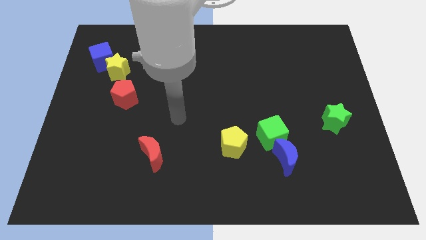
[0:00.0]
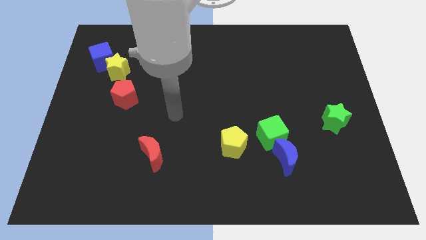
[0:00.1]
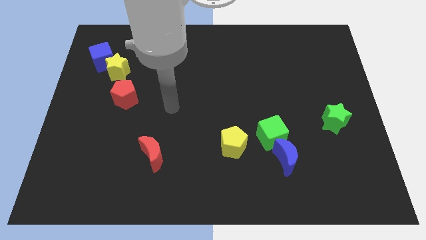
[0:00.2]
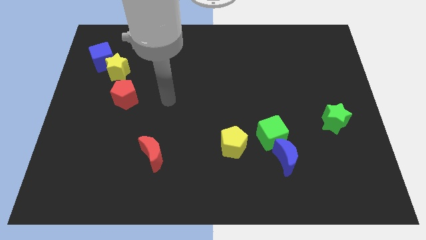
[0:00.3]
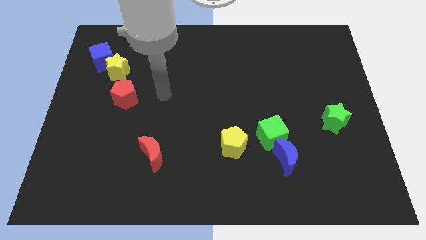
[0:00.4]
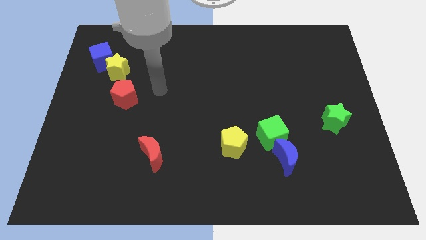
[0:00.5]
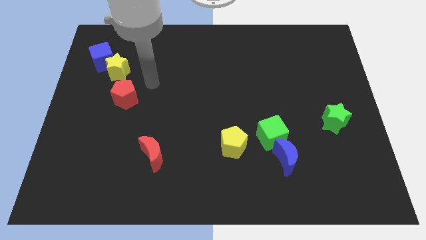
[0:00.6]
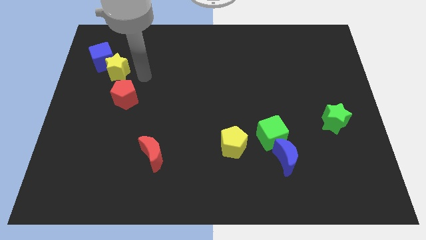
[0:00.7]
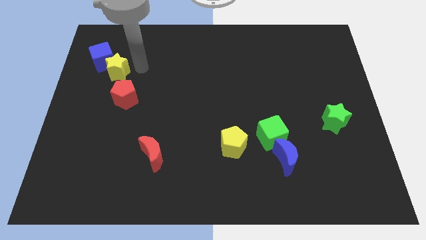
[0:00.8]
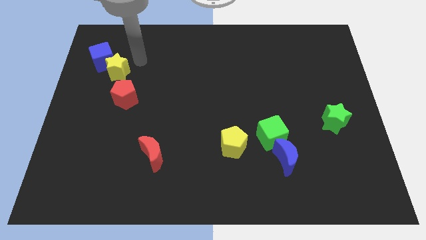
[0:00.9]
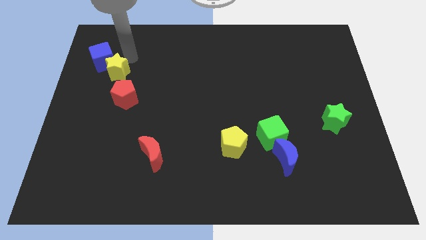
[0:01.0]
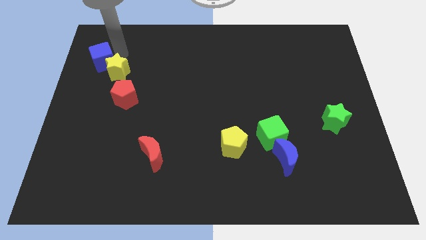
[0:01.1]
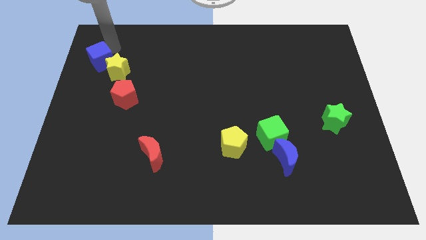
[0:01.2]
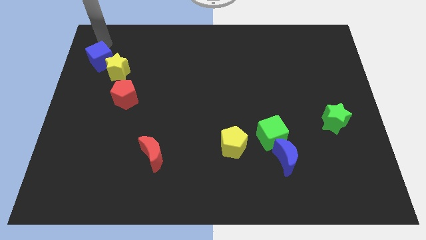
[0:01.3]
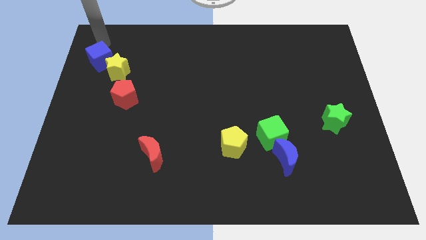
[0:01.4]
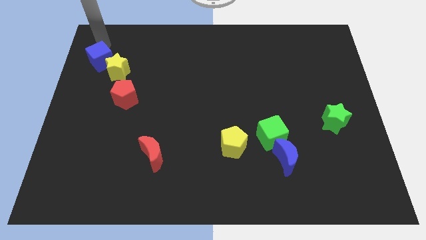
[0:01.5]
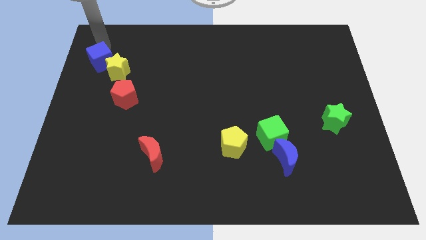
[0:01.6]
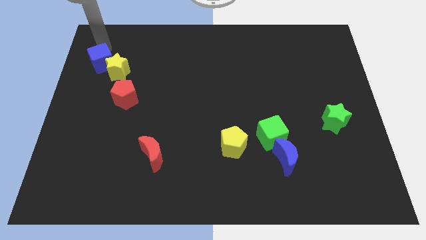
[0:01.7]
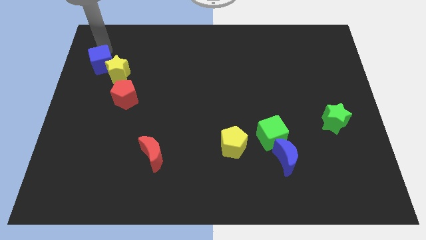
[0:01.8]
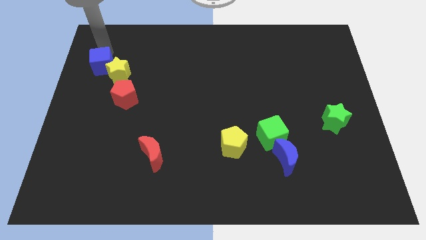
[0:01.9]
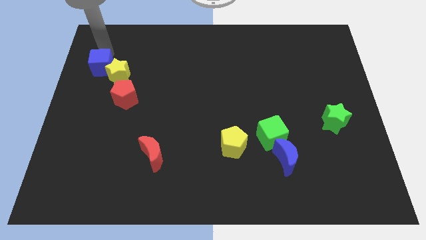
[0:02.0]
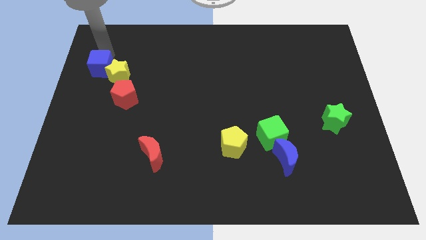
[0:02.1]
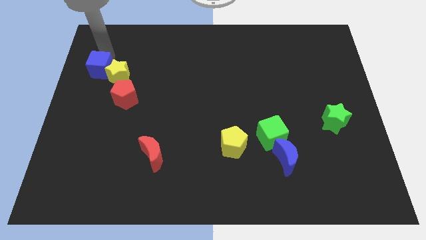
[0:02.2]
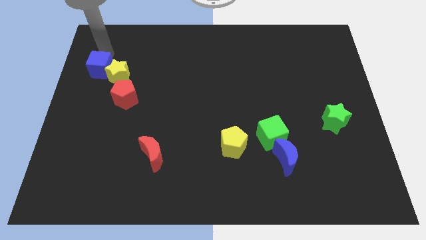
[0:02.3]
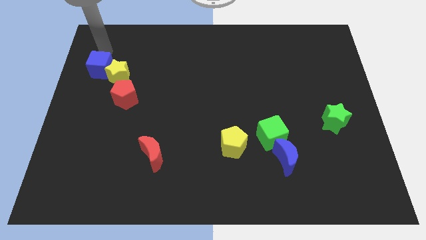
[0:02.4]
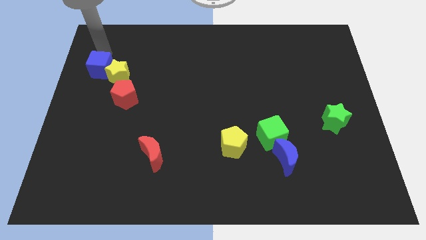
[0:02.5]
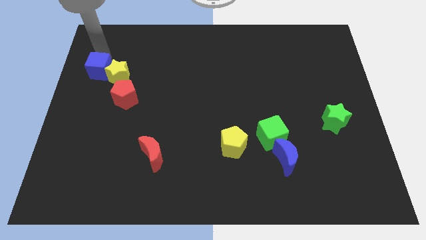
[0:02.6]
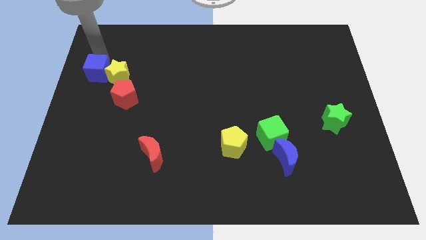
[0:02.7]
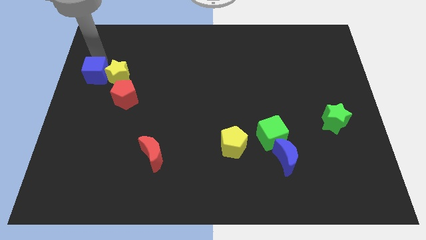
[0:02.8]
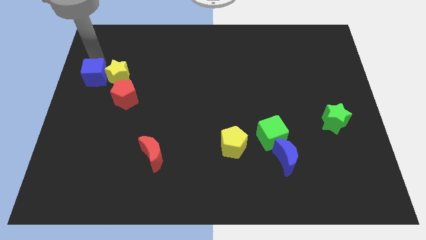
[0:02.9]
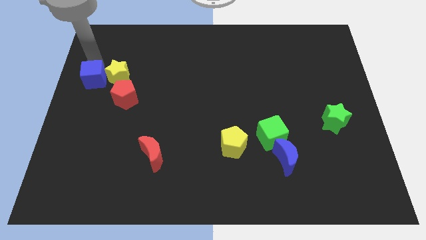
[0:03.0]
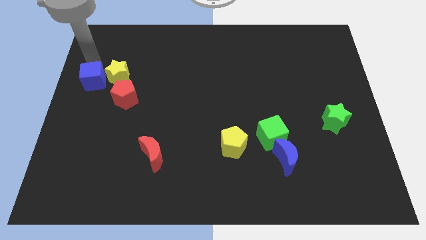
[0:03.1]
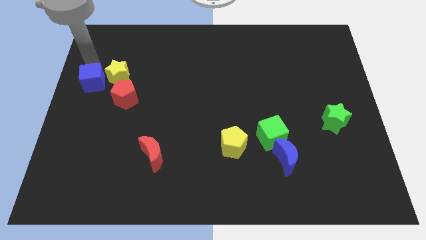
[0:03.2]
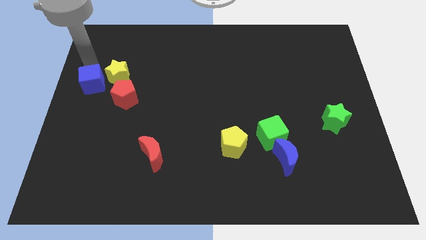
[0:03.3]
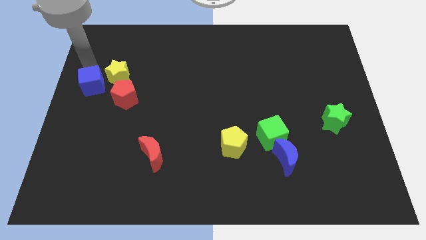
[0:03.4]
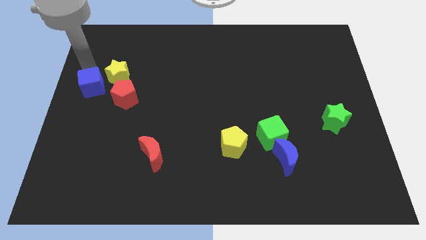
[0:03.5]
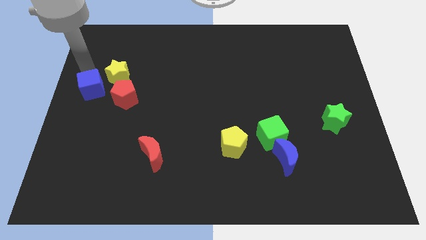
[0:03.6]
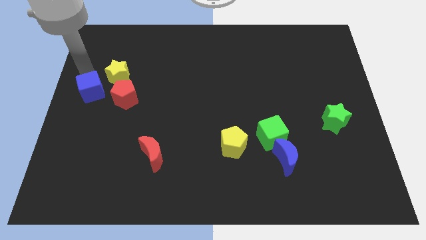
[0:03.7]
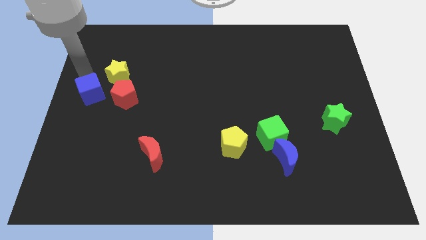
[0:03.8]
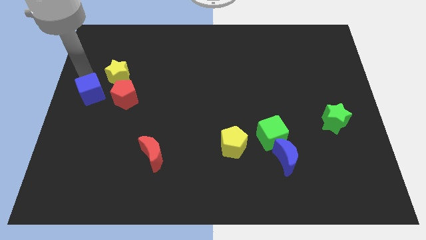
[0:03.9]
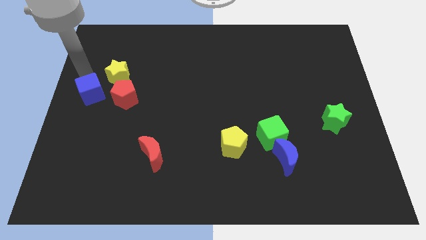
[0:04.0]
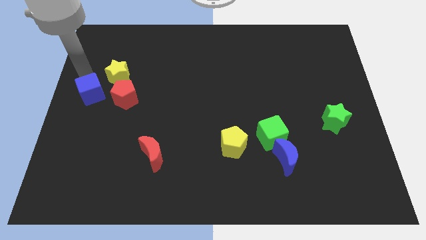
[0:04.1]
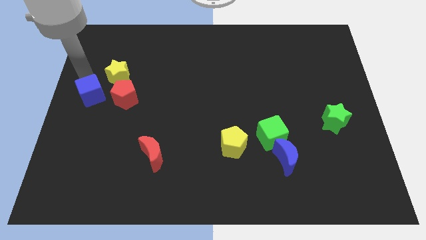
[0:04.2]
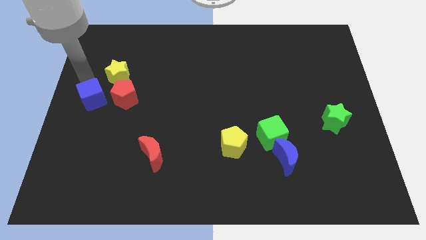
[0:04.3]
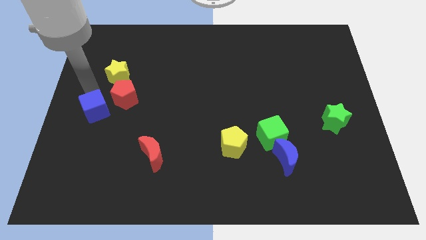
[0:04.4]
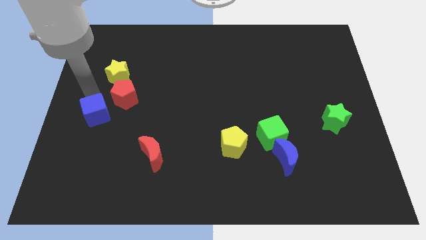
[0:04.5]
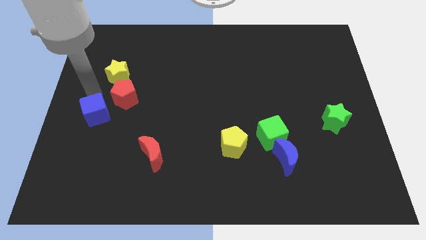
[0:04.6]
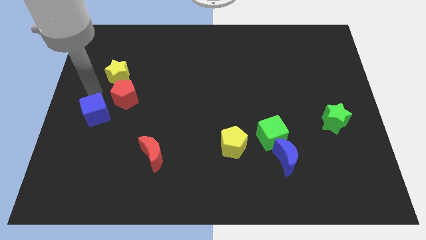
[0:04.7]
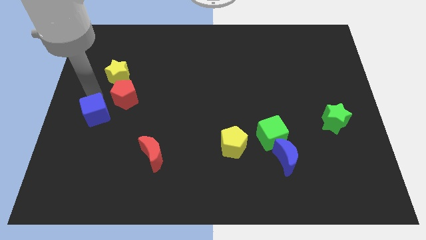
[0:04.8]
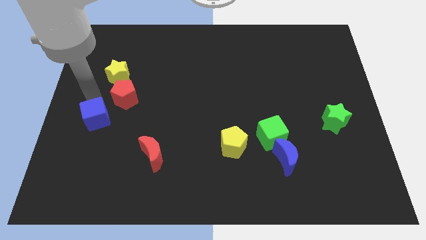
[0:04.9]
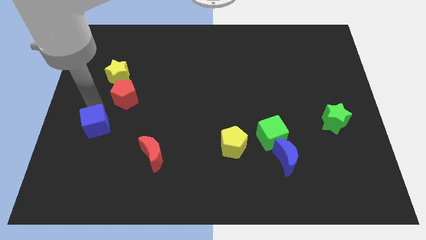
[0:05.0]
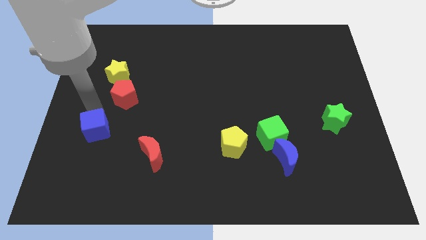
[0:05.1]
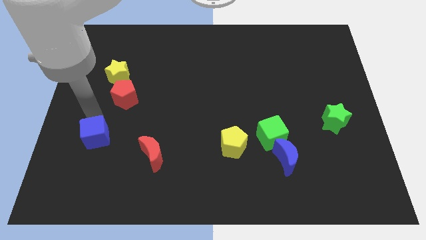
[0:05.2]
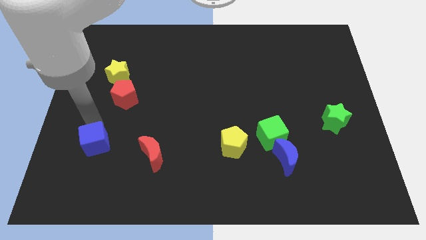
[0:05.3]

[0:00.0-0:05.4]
put the blue cube just left of the red moon

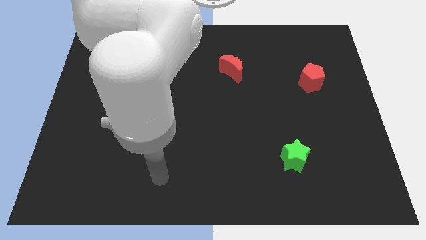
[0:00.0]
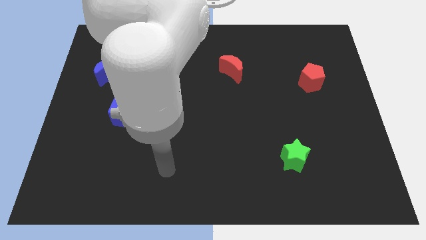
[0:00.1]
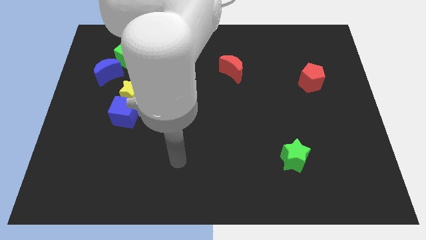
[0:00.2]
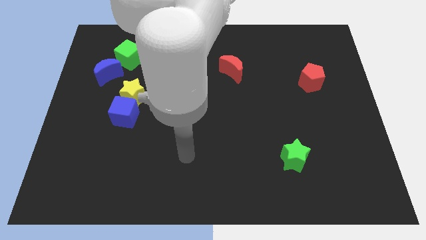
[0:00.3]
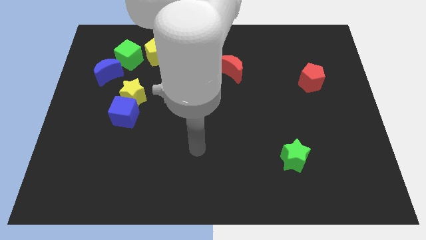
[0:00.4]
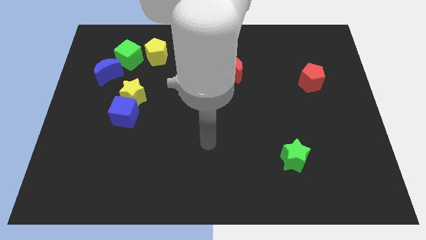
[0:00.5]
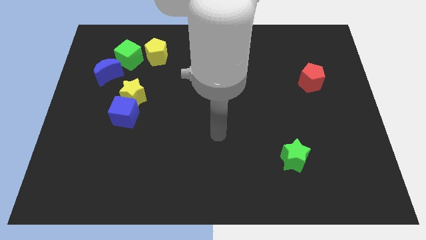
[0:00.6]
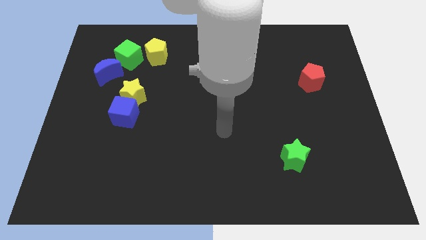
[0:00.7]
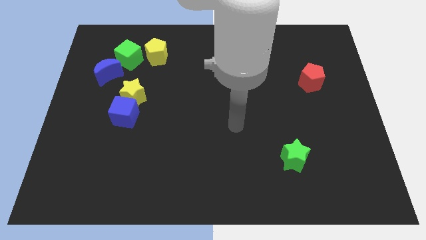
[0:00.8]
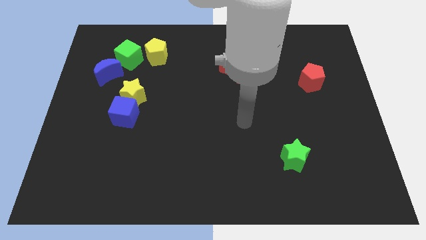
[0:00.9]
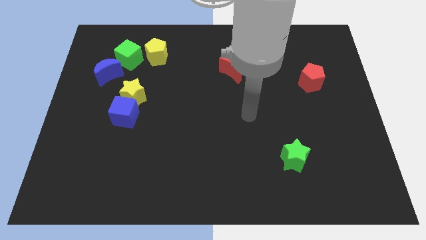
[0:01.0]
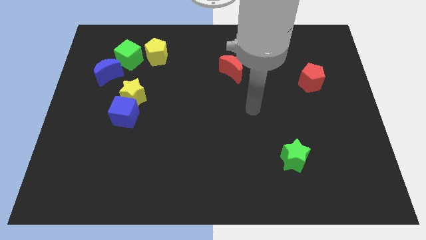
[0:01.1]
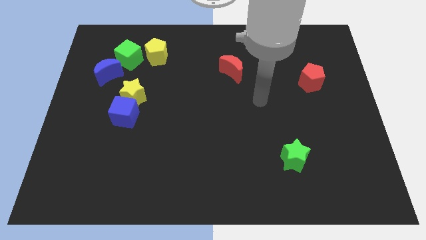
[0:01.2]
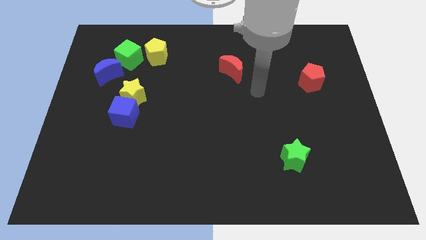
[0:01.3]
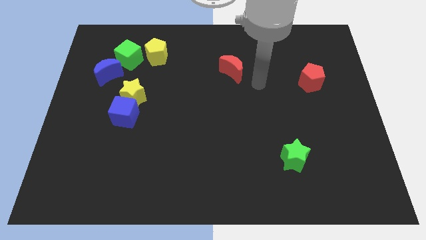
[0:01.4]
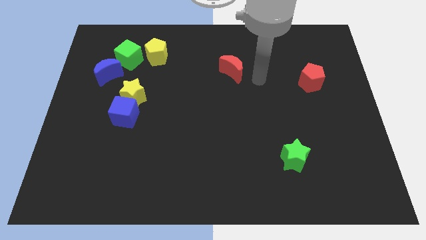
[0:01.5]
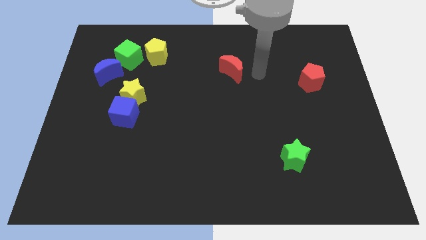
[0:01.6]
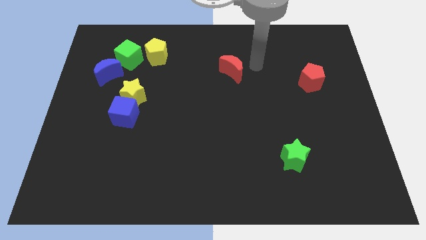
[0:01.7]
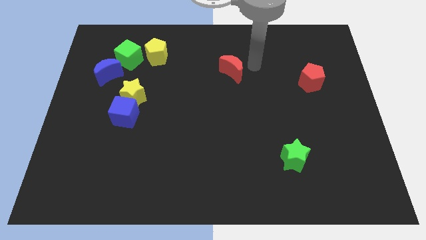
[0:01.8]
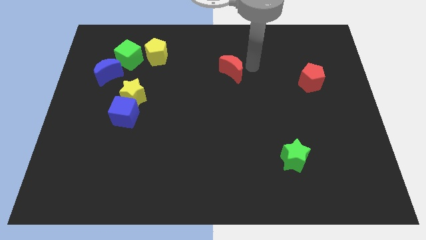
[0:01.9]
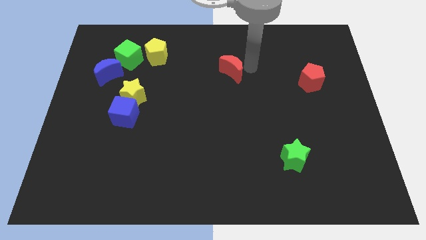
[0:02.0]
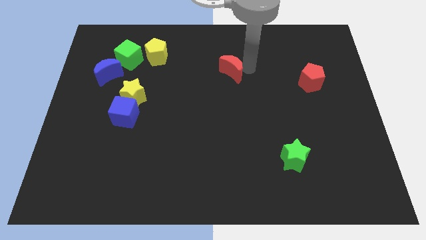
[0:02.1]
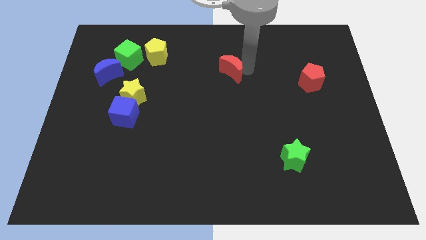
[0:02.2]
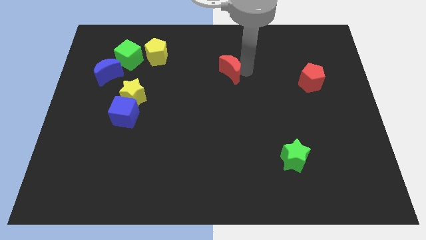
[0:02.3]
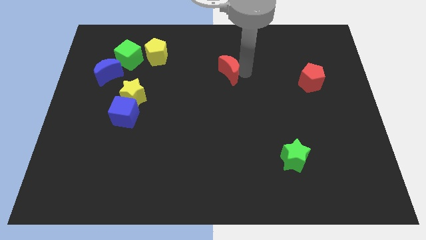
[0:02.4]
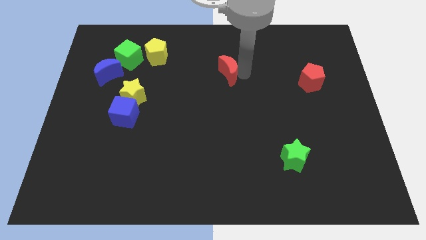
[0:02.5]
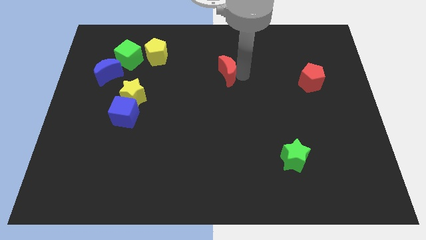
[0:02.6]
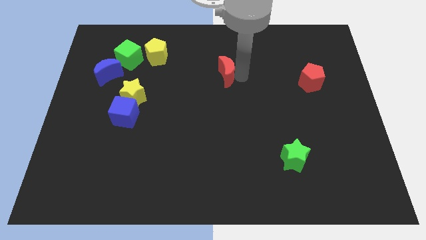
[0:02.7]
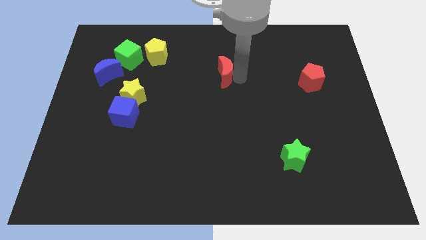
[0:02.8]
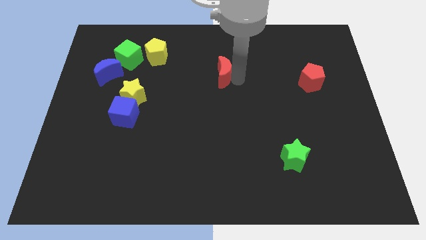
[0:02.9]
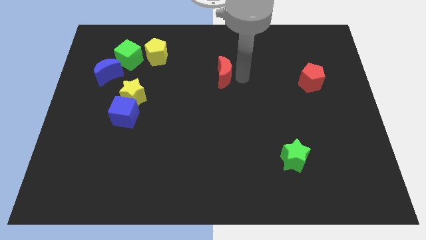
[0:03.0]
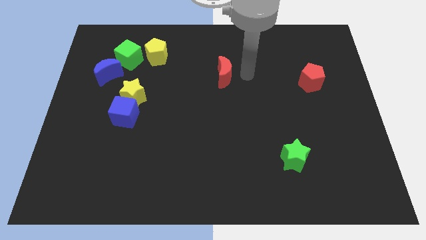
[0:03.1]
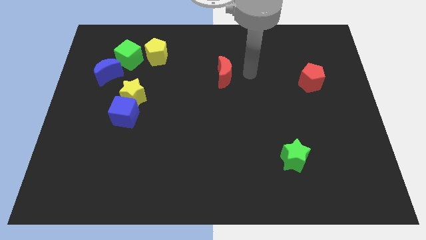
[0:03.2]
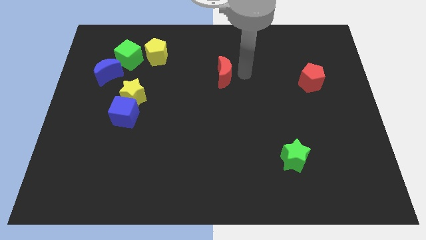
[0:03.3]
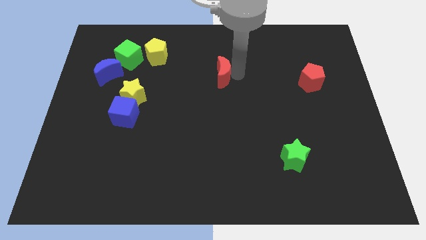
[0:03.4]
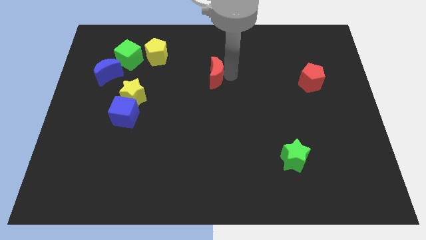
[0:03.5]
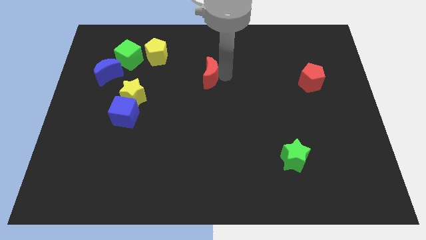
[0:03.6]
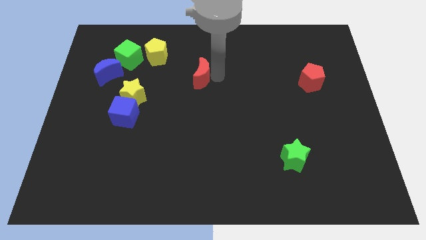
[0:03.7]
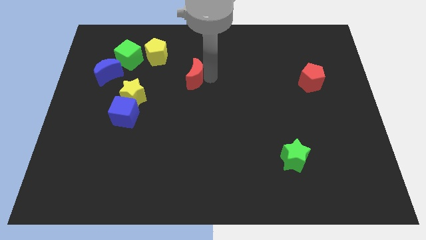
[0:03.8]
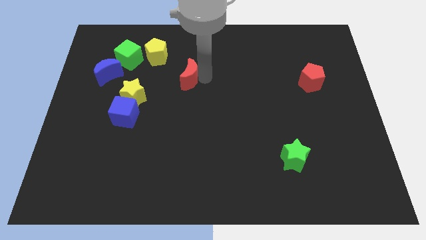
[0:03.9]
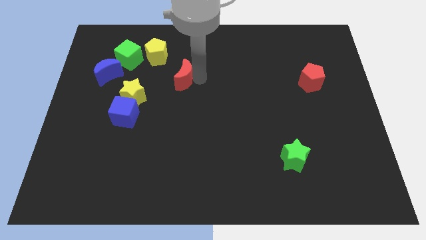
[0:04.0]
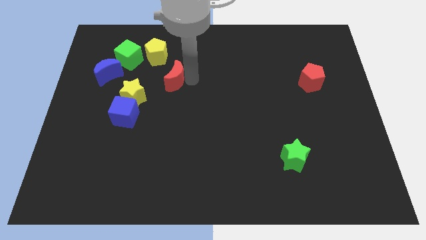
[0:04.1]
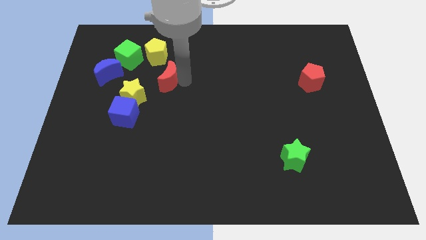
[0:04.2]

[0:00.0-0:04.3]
push the red moon just right of the blue moon
